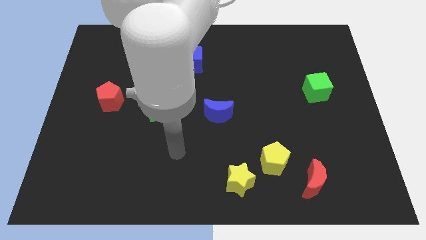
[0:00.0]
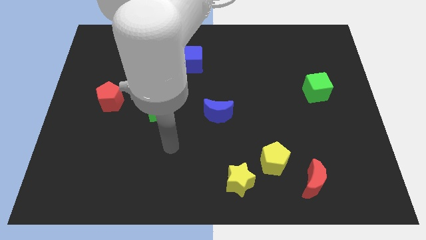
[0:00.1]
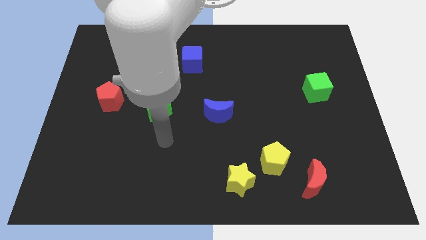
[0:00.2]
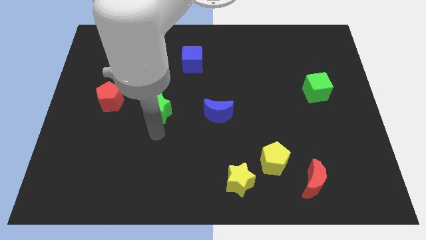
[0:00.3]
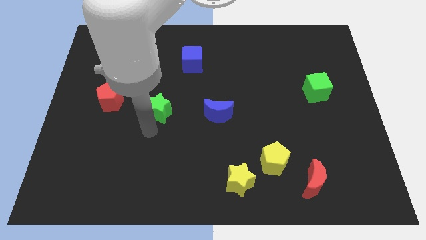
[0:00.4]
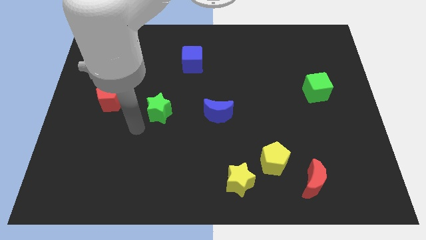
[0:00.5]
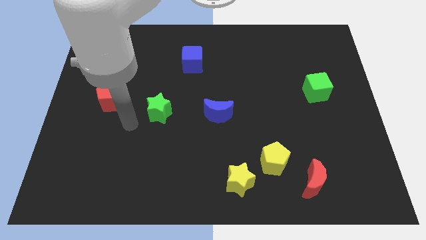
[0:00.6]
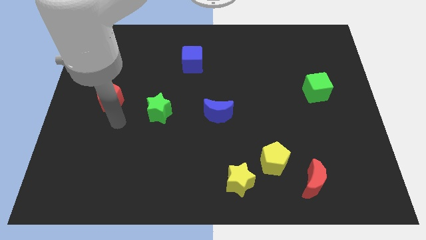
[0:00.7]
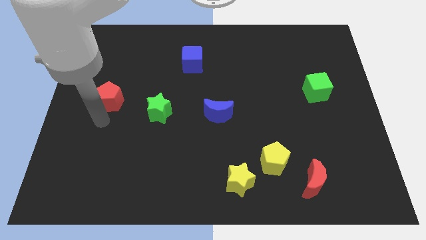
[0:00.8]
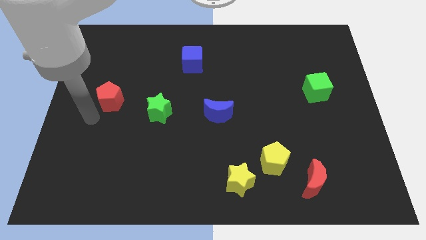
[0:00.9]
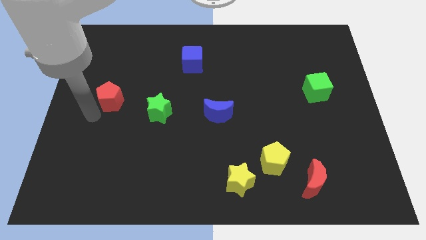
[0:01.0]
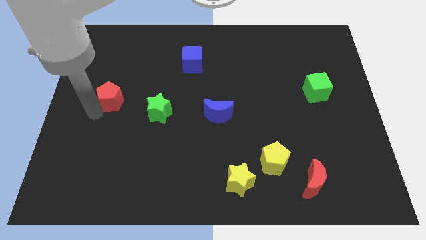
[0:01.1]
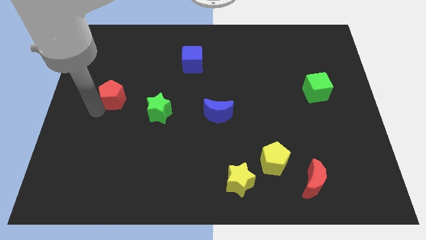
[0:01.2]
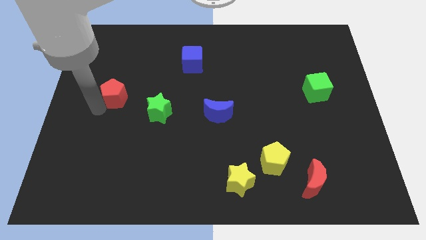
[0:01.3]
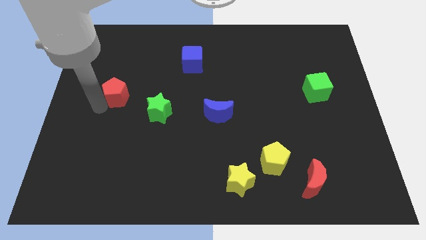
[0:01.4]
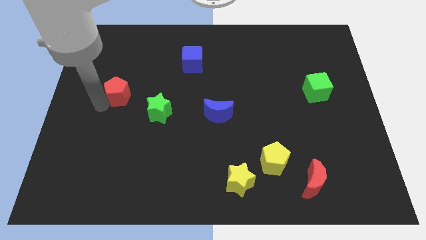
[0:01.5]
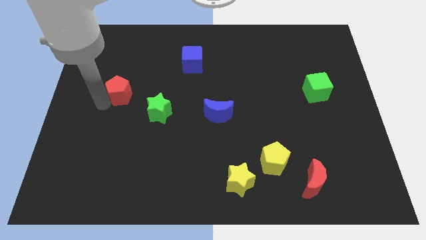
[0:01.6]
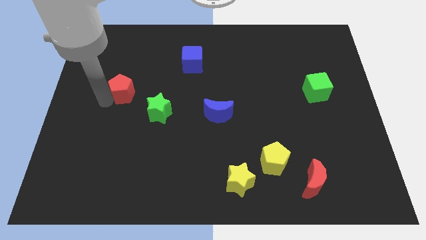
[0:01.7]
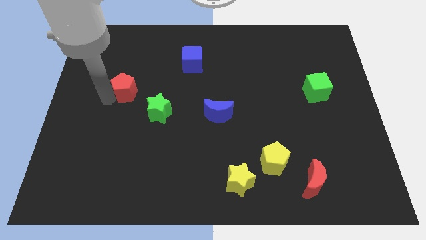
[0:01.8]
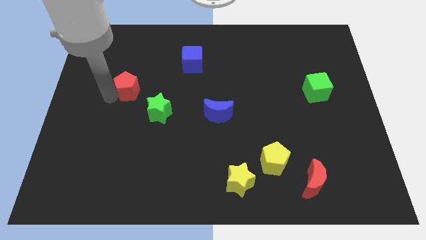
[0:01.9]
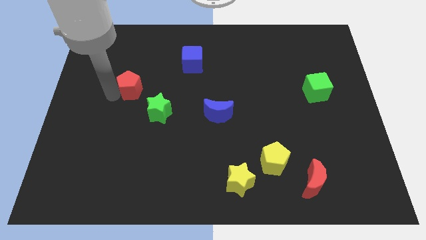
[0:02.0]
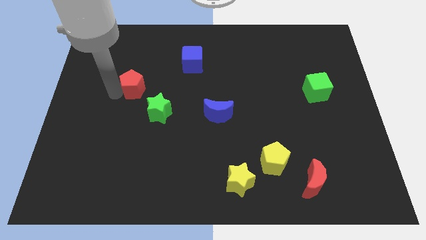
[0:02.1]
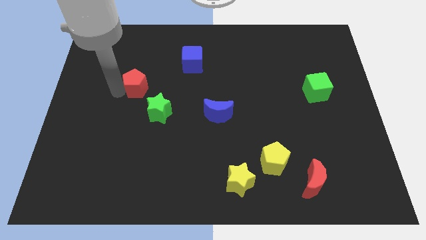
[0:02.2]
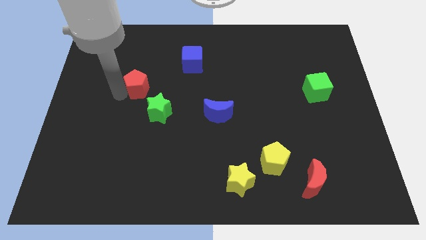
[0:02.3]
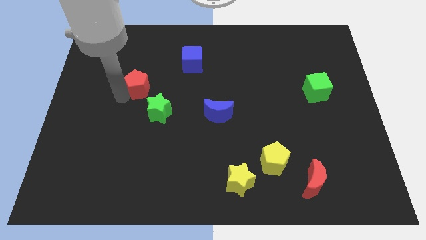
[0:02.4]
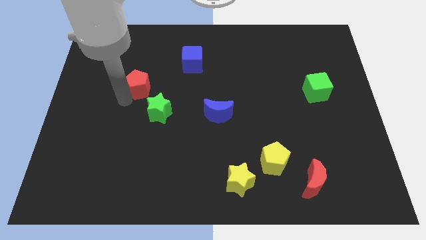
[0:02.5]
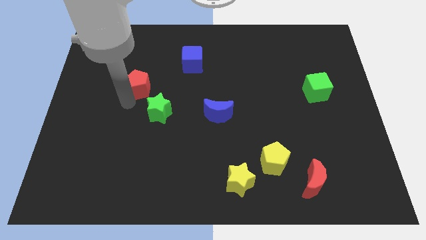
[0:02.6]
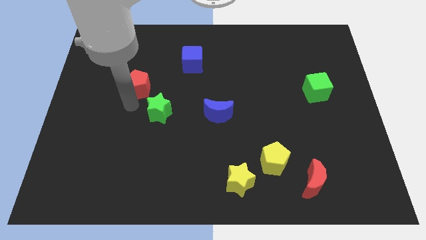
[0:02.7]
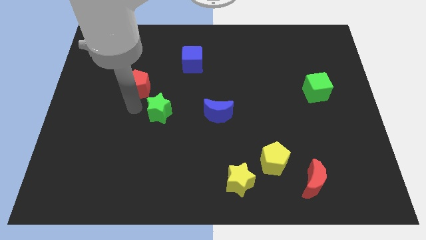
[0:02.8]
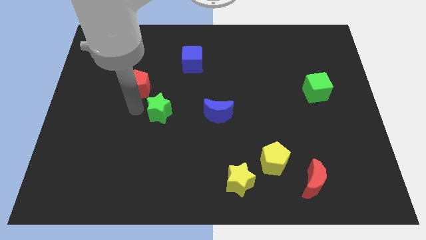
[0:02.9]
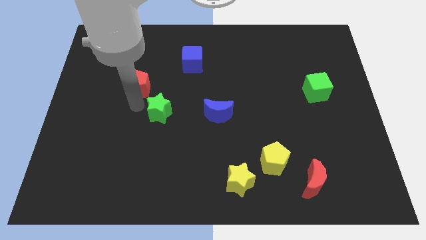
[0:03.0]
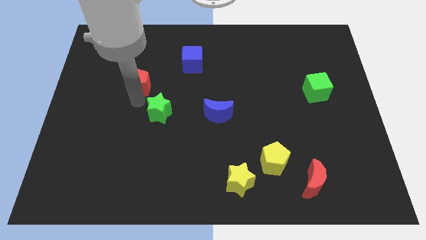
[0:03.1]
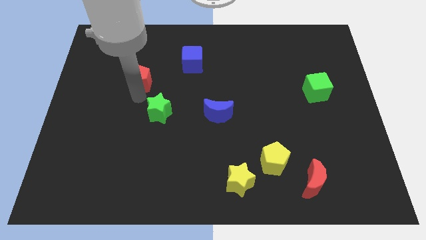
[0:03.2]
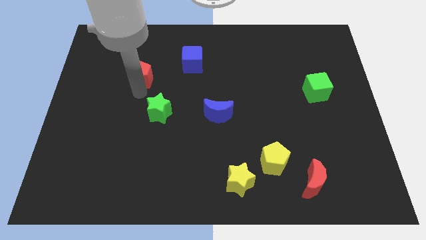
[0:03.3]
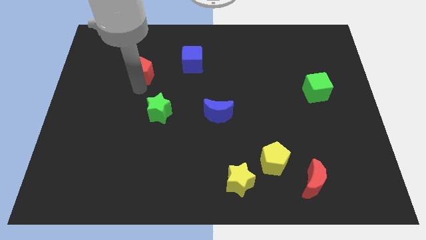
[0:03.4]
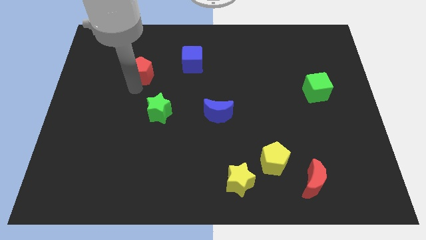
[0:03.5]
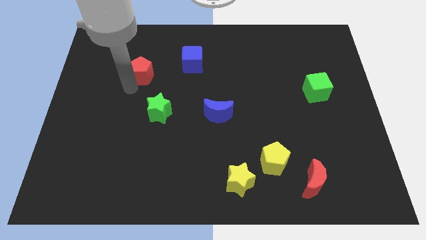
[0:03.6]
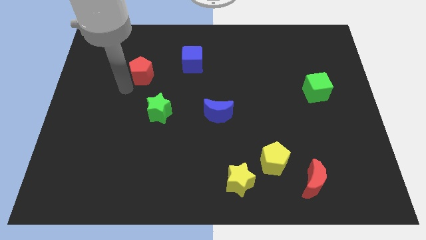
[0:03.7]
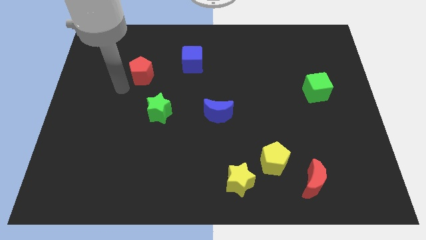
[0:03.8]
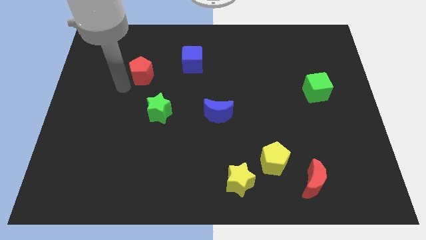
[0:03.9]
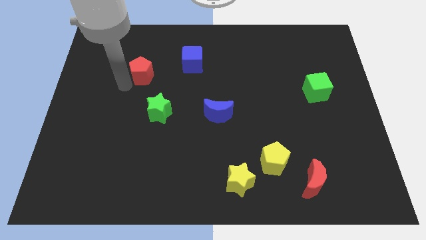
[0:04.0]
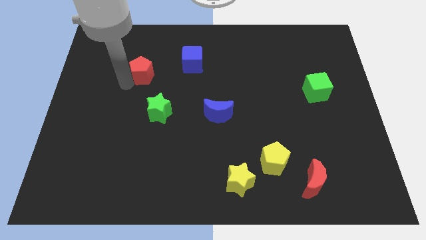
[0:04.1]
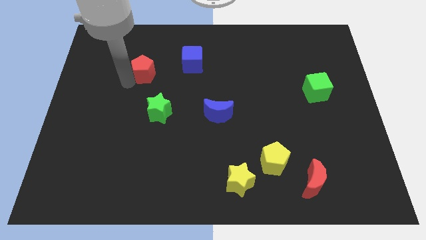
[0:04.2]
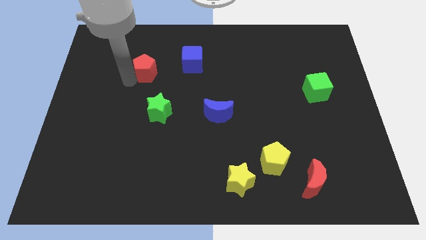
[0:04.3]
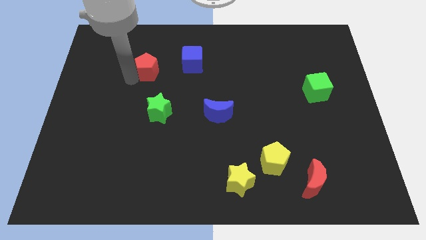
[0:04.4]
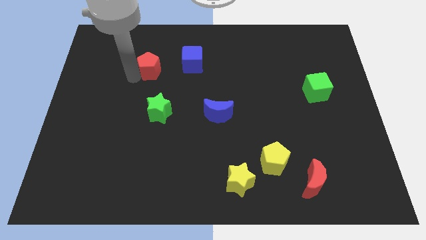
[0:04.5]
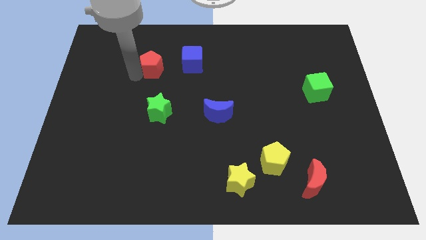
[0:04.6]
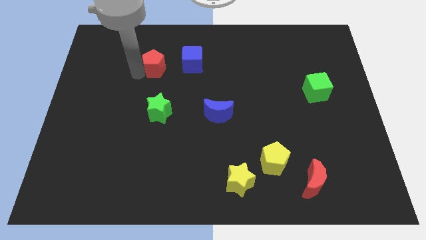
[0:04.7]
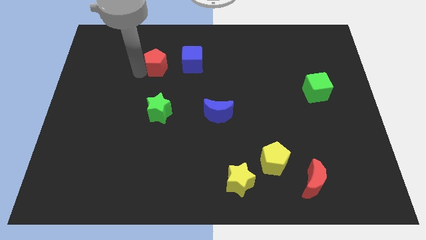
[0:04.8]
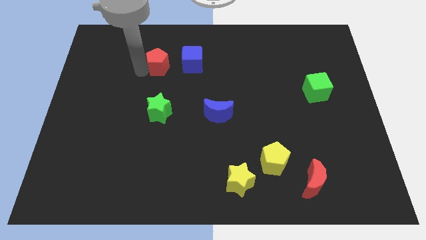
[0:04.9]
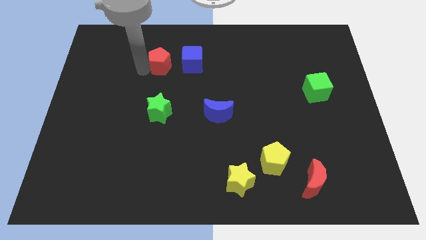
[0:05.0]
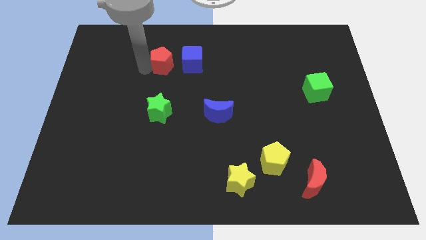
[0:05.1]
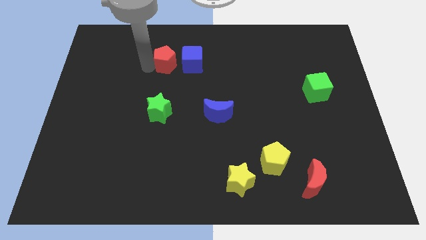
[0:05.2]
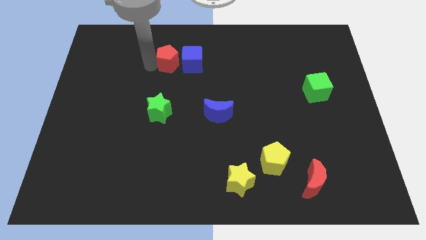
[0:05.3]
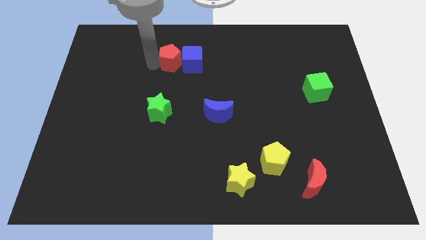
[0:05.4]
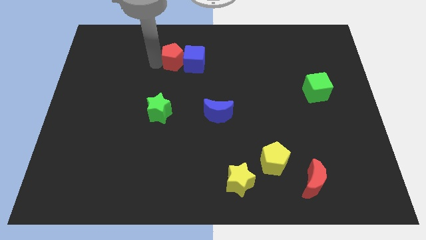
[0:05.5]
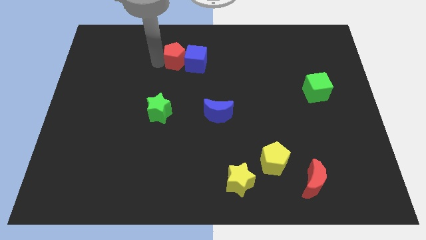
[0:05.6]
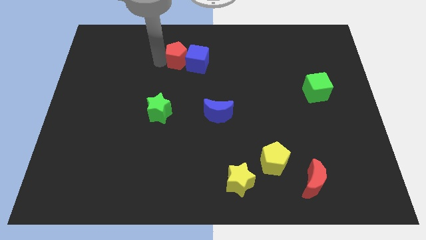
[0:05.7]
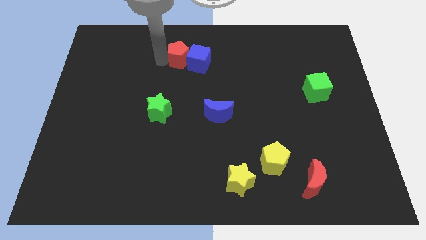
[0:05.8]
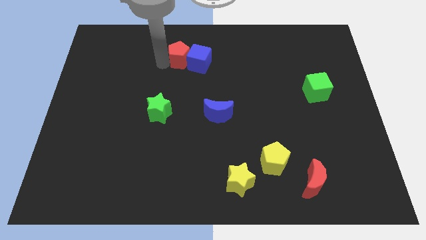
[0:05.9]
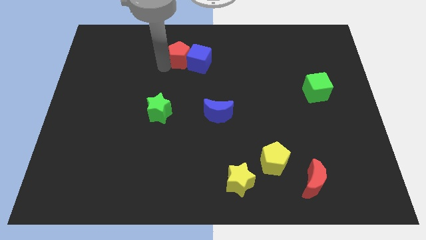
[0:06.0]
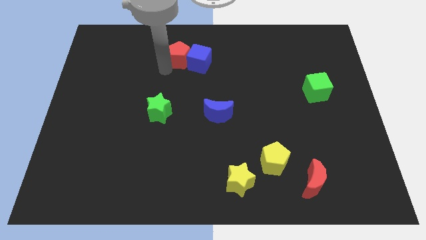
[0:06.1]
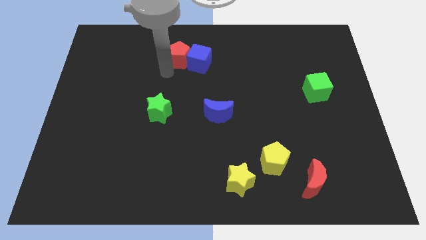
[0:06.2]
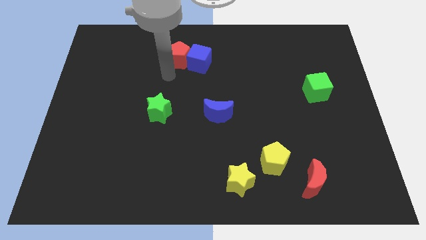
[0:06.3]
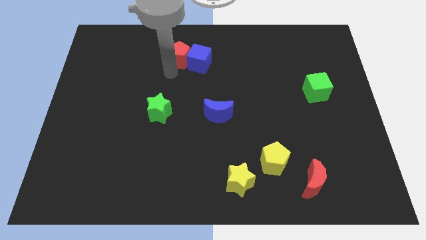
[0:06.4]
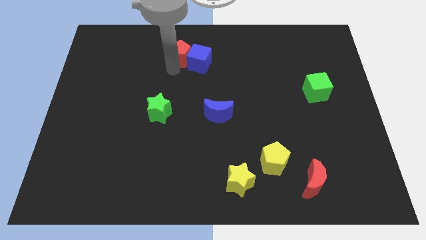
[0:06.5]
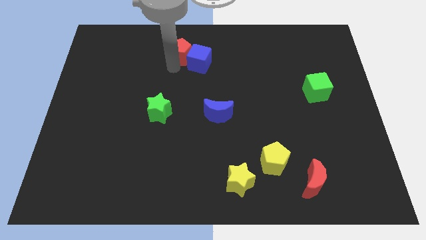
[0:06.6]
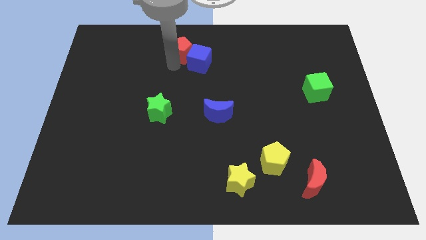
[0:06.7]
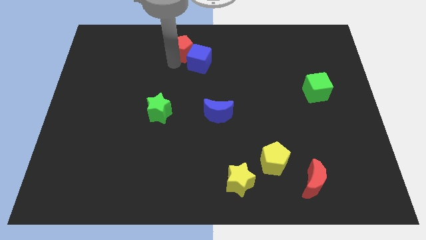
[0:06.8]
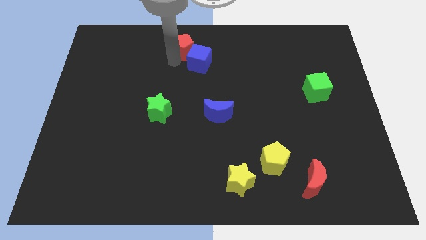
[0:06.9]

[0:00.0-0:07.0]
put the red pentagon to the top side
